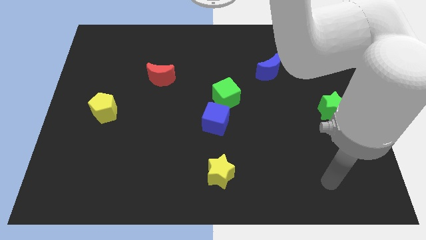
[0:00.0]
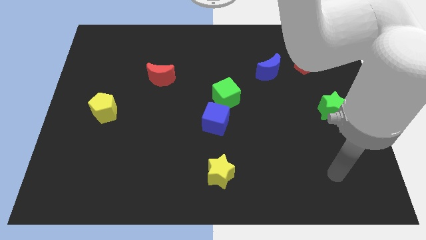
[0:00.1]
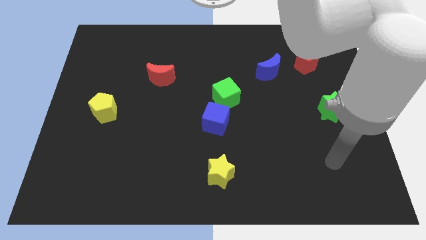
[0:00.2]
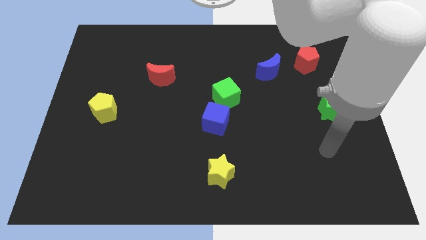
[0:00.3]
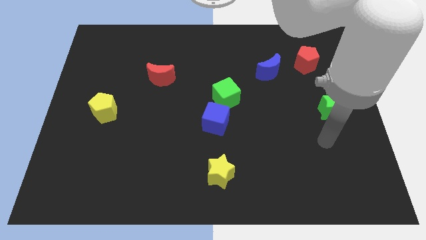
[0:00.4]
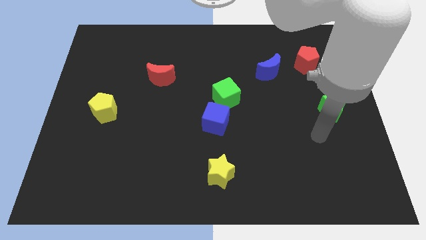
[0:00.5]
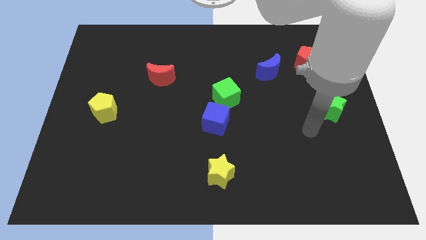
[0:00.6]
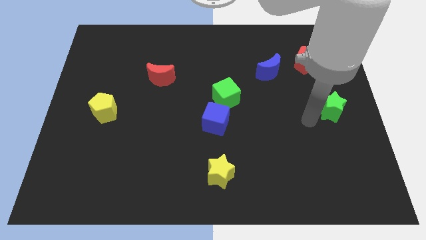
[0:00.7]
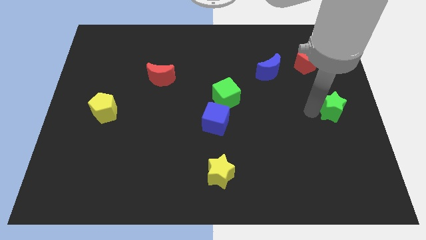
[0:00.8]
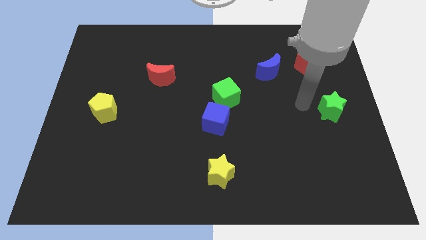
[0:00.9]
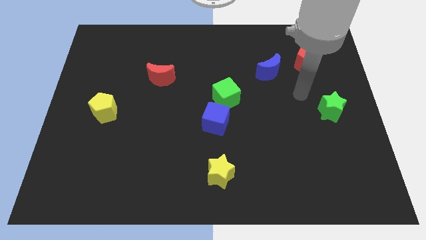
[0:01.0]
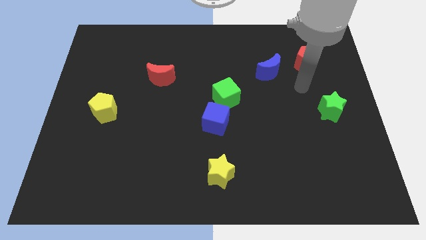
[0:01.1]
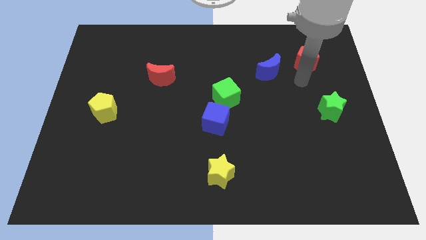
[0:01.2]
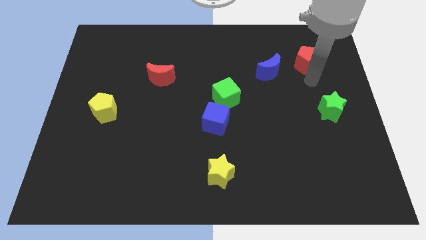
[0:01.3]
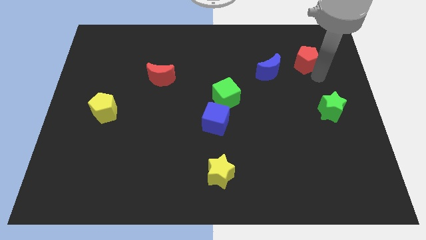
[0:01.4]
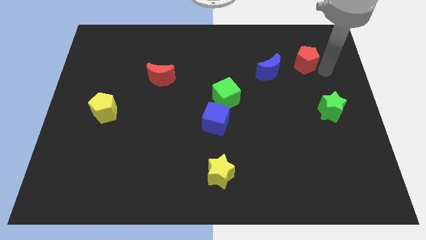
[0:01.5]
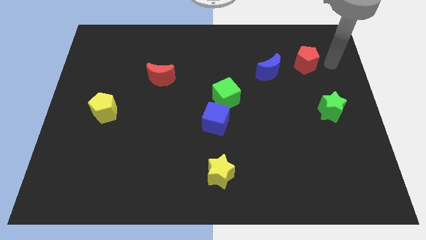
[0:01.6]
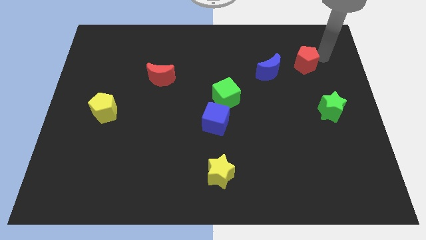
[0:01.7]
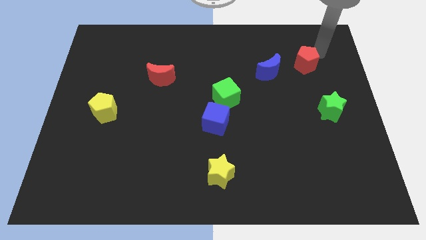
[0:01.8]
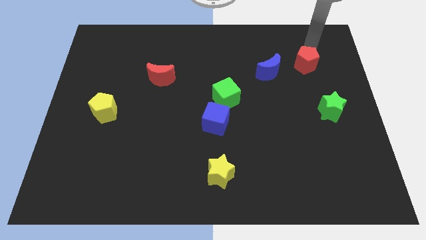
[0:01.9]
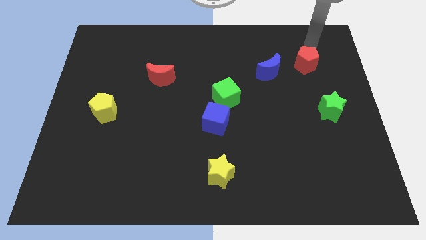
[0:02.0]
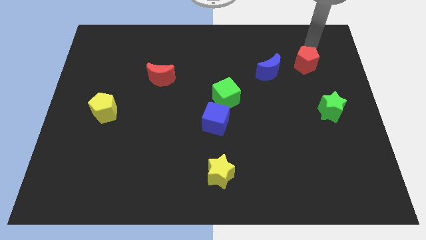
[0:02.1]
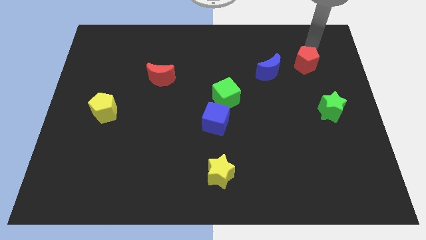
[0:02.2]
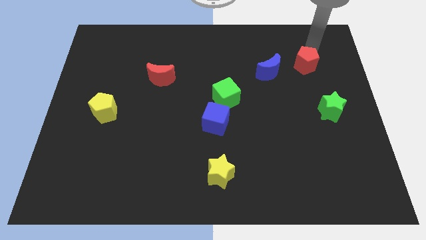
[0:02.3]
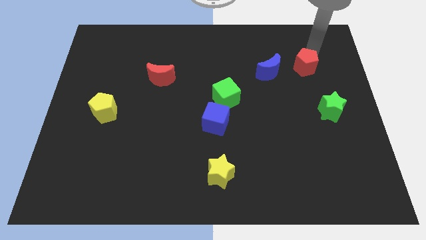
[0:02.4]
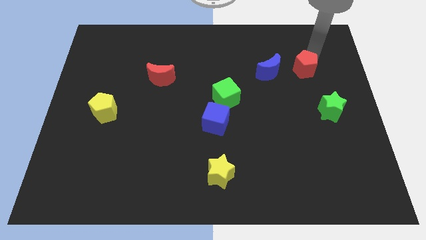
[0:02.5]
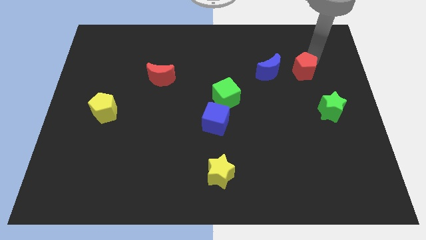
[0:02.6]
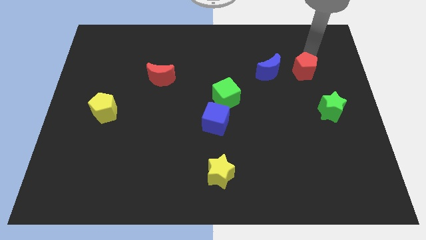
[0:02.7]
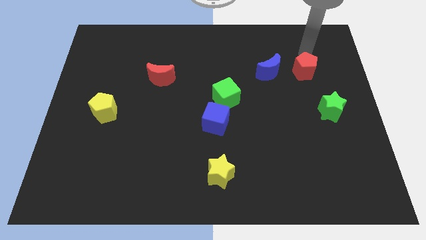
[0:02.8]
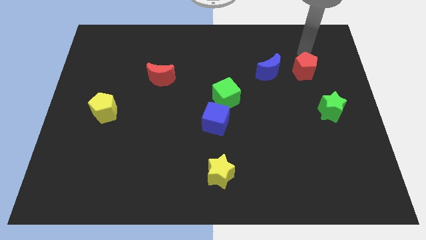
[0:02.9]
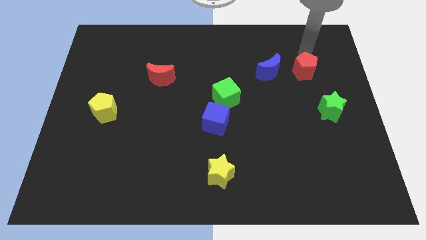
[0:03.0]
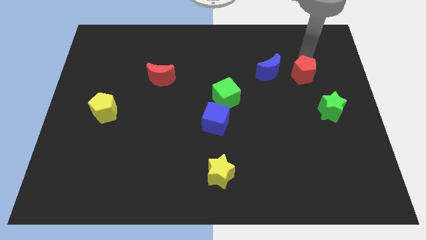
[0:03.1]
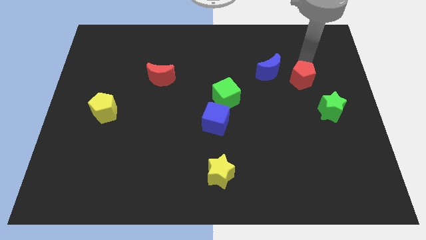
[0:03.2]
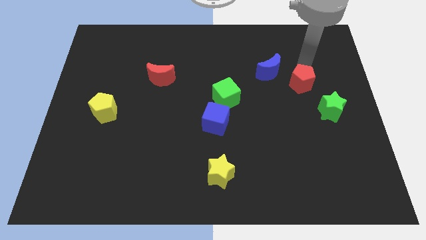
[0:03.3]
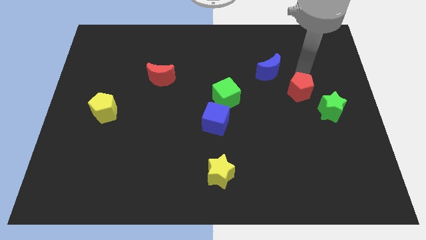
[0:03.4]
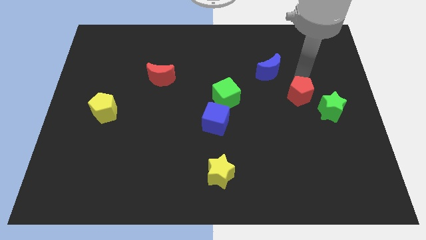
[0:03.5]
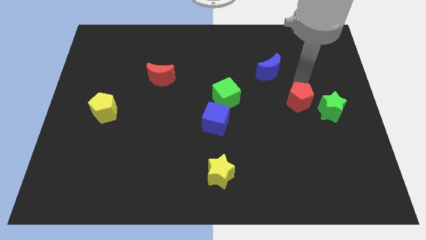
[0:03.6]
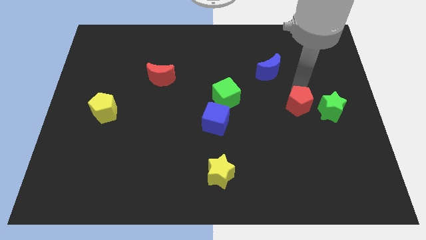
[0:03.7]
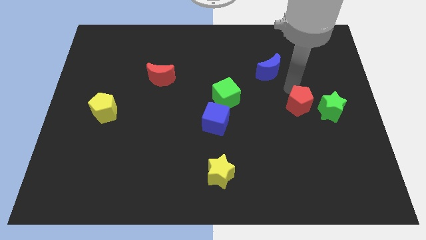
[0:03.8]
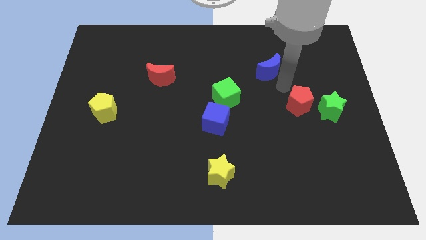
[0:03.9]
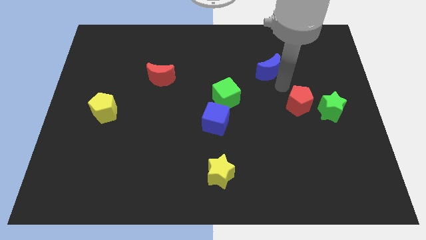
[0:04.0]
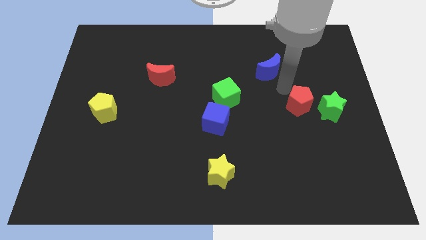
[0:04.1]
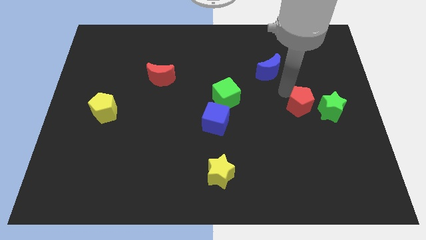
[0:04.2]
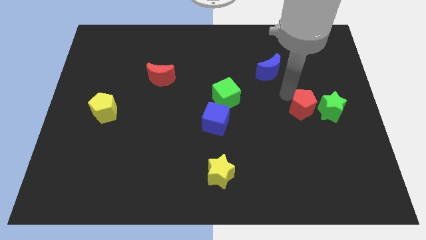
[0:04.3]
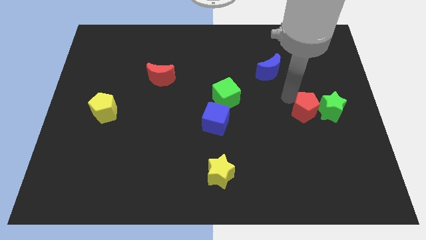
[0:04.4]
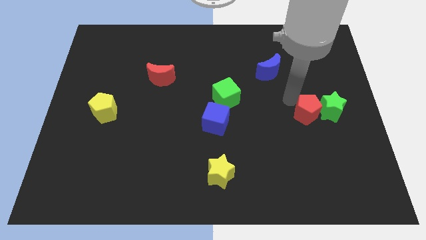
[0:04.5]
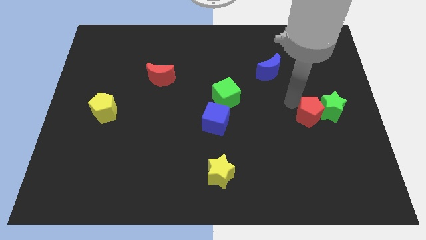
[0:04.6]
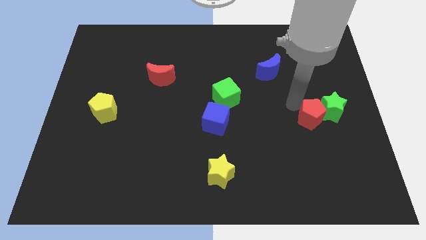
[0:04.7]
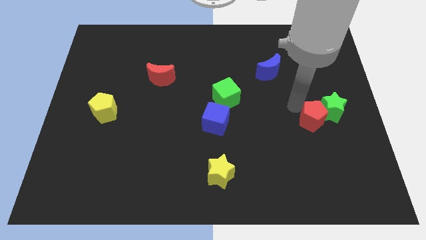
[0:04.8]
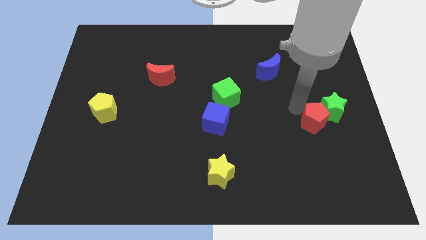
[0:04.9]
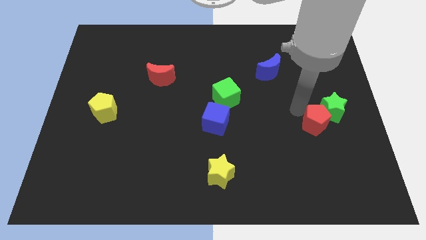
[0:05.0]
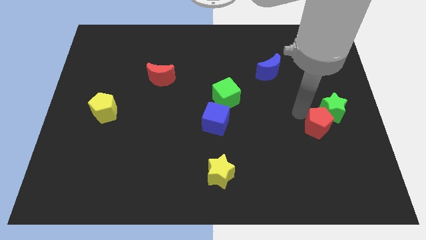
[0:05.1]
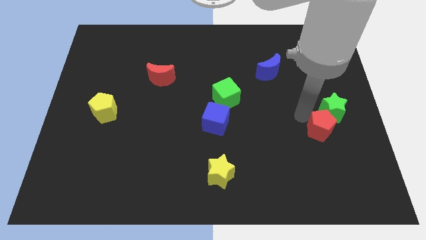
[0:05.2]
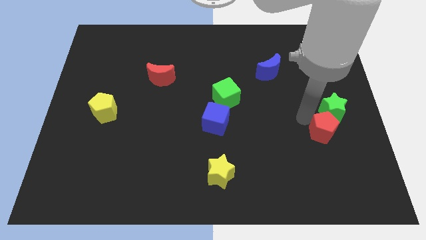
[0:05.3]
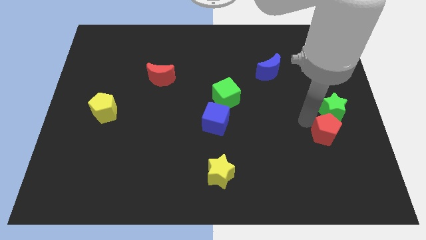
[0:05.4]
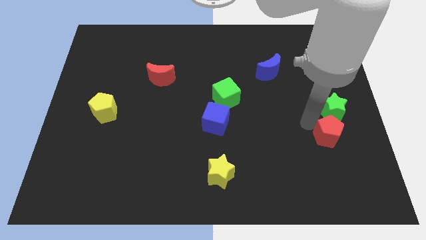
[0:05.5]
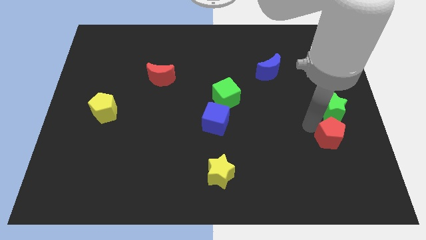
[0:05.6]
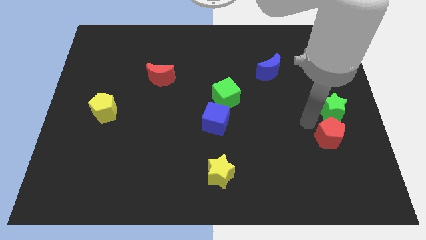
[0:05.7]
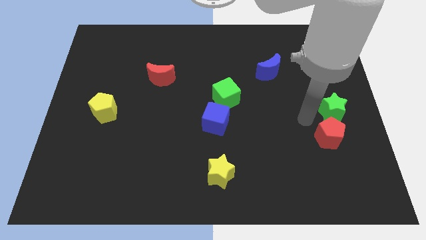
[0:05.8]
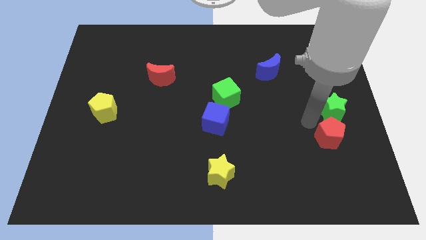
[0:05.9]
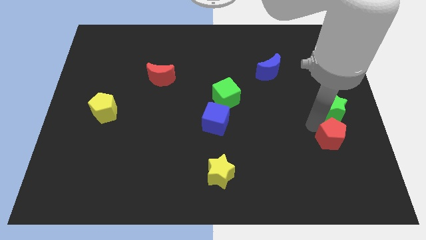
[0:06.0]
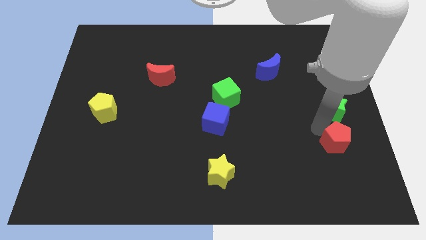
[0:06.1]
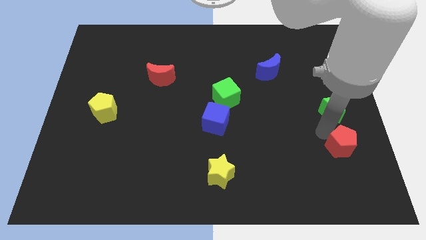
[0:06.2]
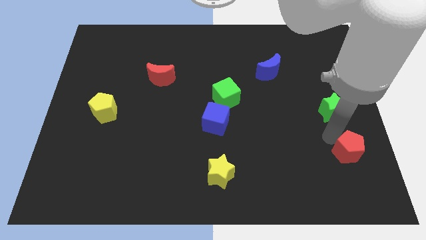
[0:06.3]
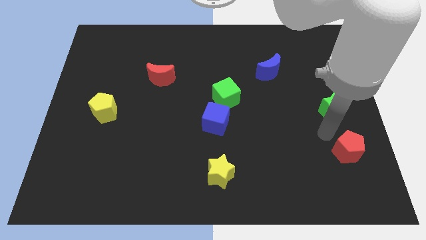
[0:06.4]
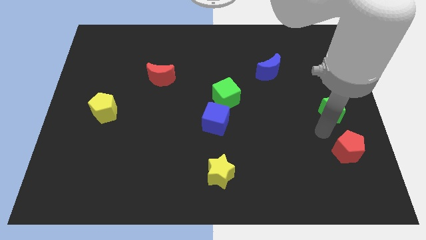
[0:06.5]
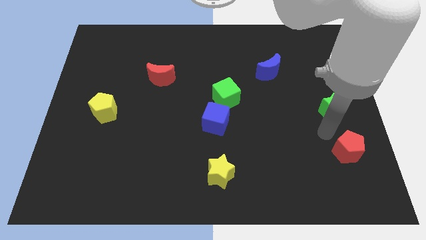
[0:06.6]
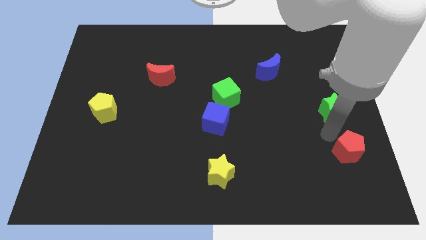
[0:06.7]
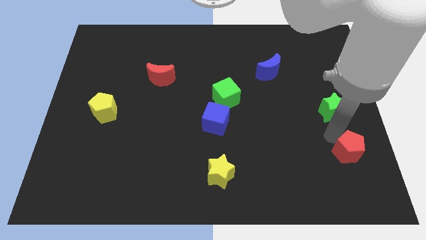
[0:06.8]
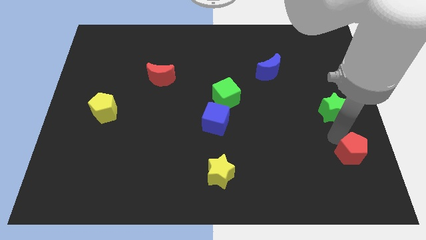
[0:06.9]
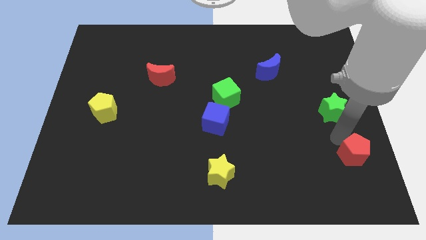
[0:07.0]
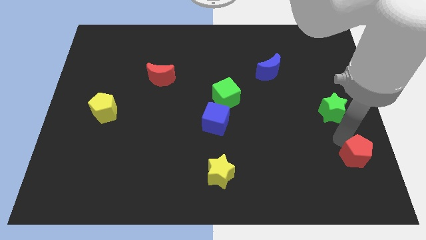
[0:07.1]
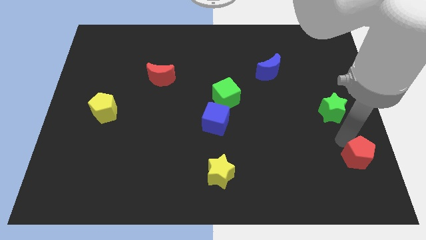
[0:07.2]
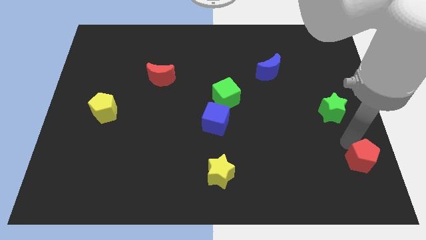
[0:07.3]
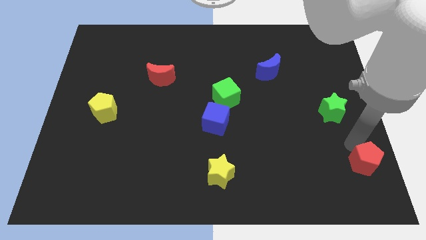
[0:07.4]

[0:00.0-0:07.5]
move the red pentagon to the bottom right
